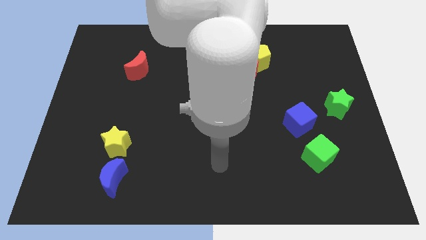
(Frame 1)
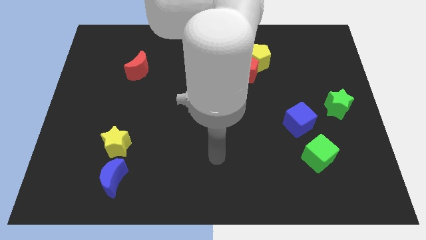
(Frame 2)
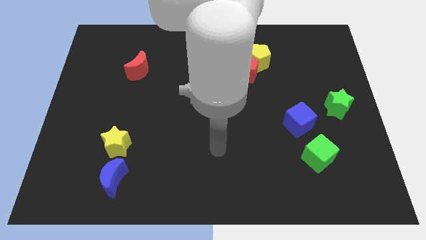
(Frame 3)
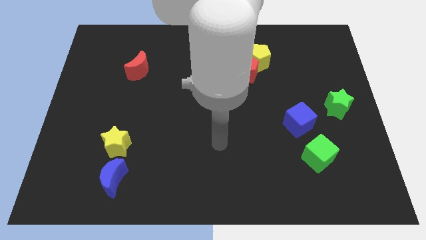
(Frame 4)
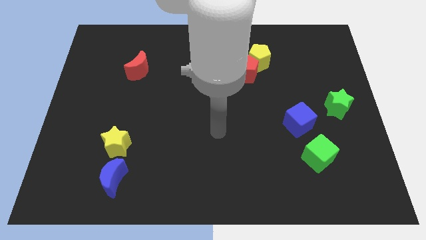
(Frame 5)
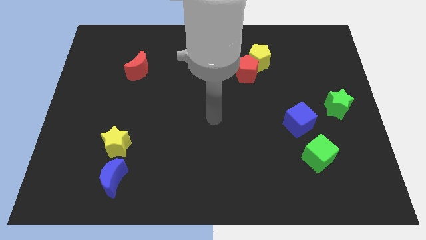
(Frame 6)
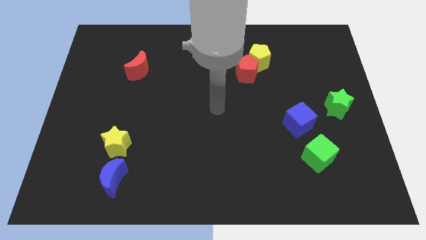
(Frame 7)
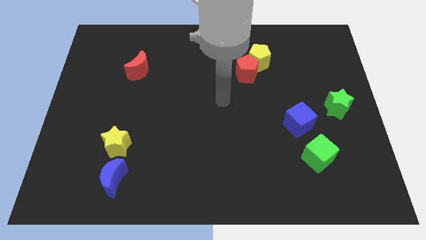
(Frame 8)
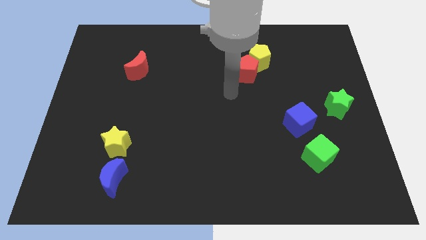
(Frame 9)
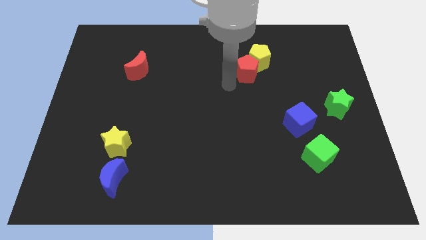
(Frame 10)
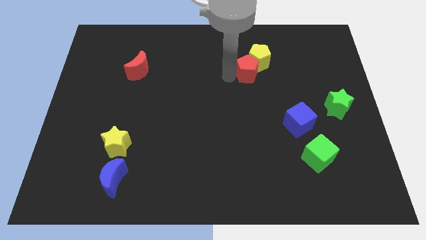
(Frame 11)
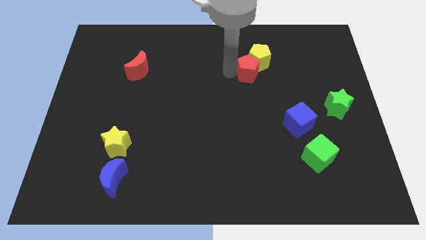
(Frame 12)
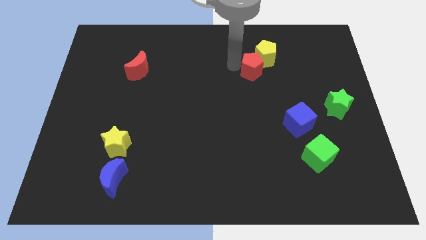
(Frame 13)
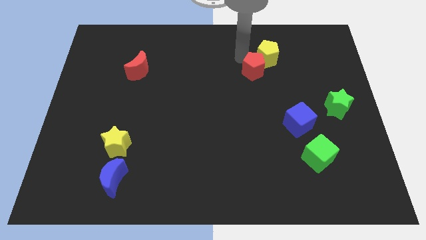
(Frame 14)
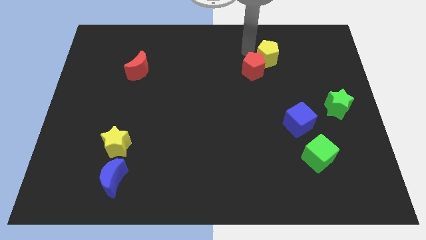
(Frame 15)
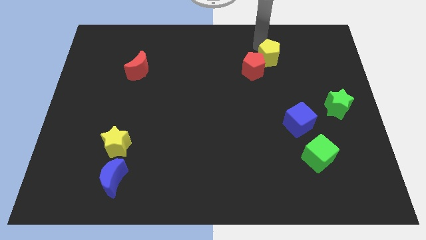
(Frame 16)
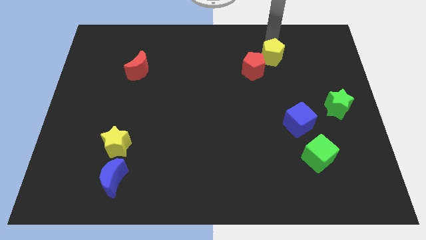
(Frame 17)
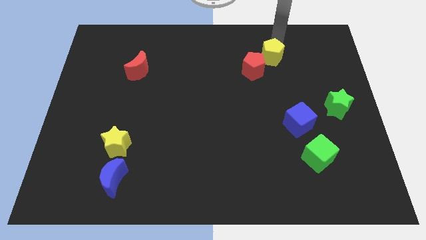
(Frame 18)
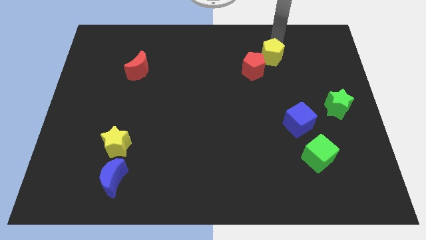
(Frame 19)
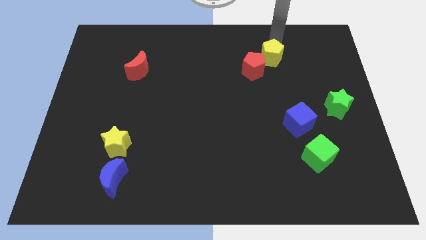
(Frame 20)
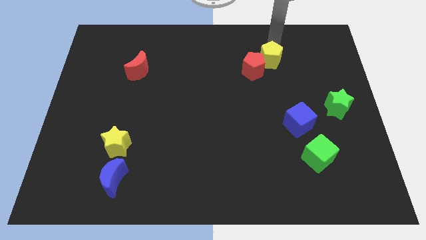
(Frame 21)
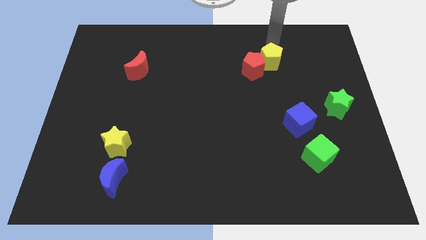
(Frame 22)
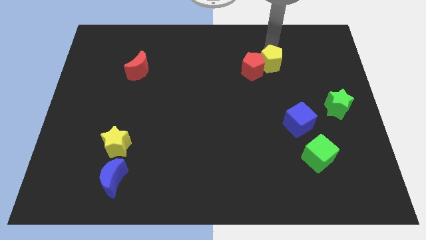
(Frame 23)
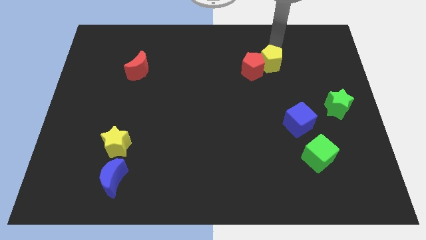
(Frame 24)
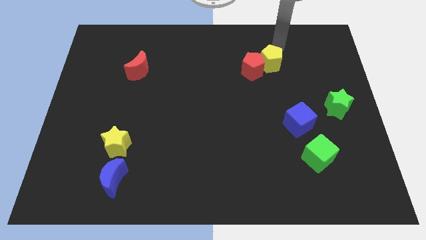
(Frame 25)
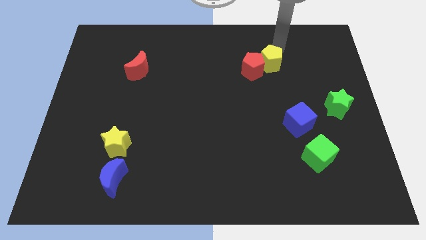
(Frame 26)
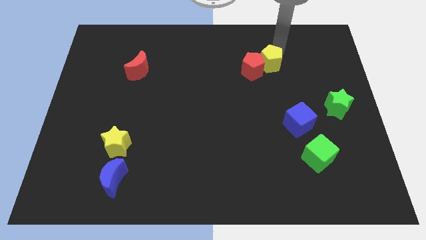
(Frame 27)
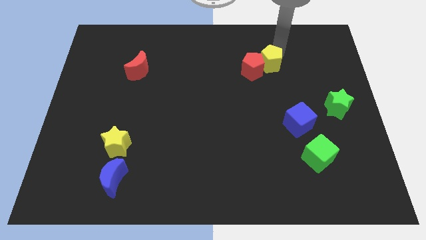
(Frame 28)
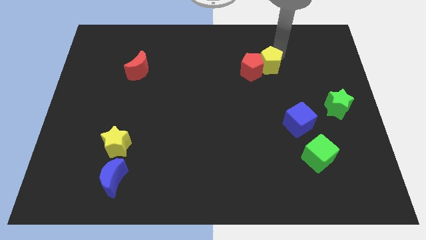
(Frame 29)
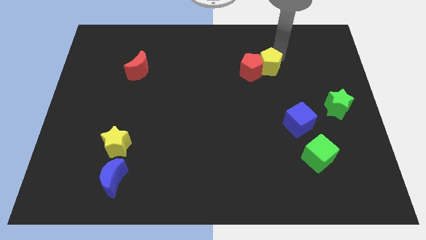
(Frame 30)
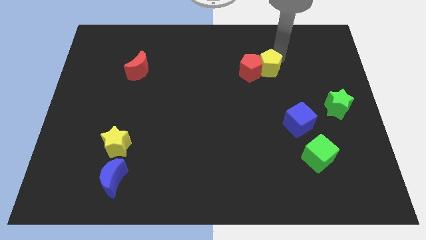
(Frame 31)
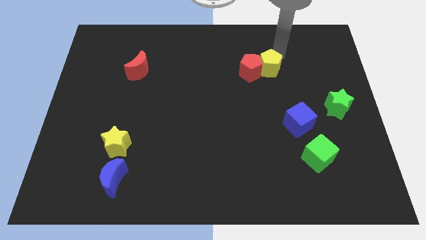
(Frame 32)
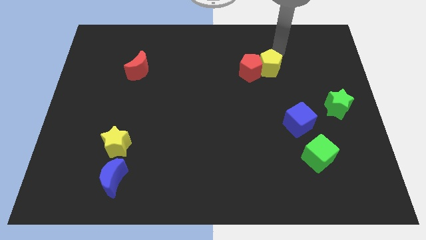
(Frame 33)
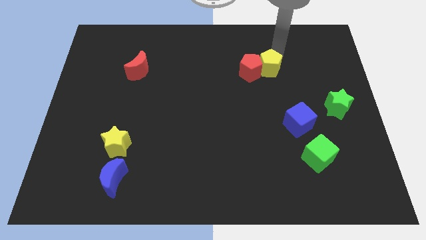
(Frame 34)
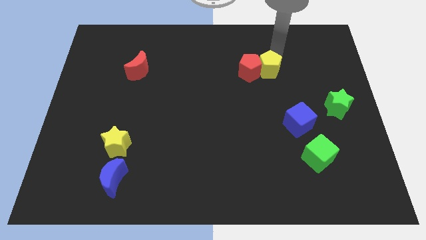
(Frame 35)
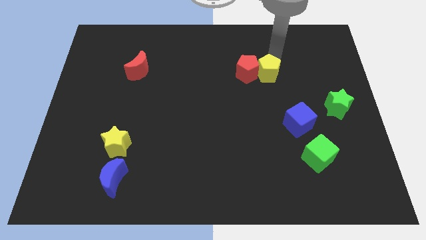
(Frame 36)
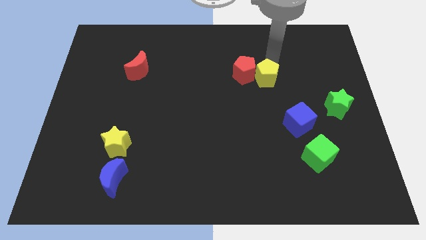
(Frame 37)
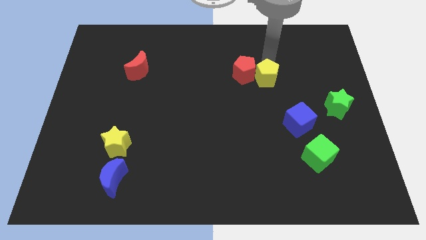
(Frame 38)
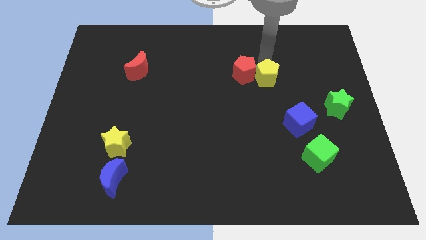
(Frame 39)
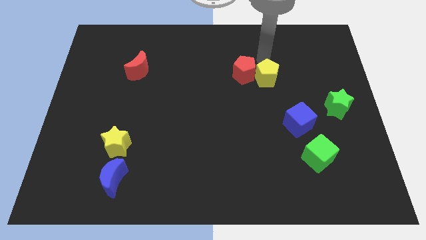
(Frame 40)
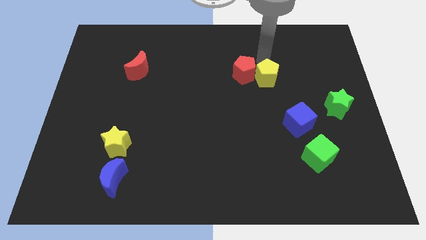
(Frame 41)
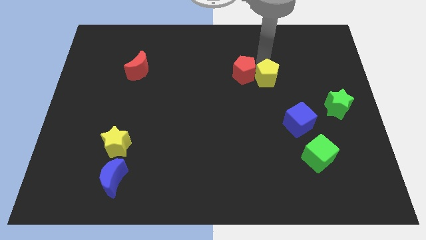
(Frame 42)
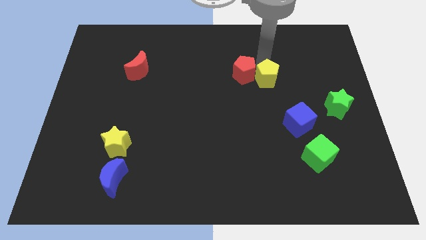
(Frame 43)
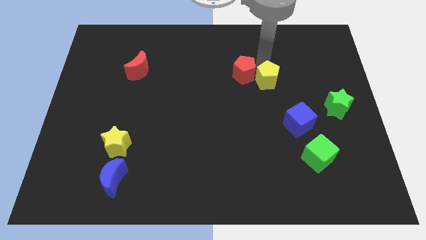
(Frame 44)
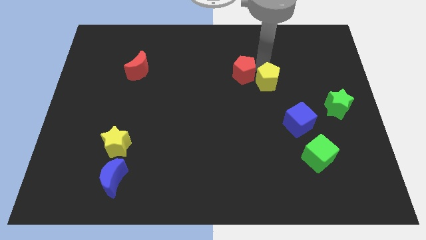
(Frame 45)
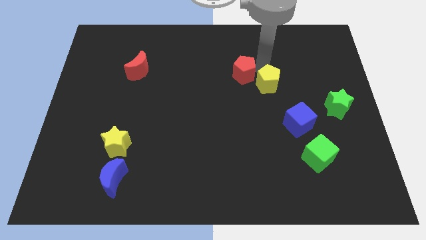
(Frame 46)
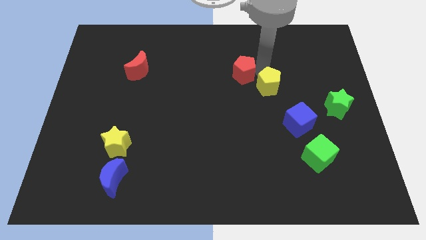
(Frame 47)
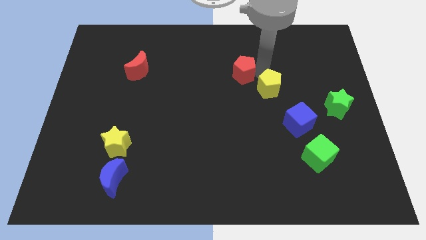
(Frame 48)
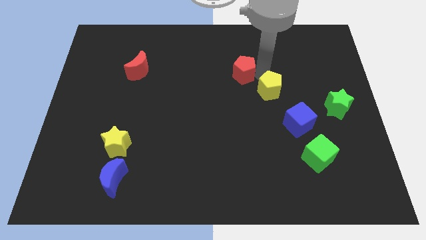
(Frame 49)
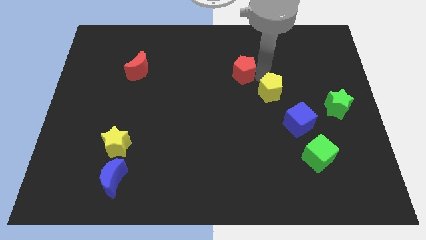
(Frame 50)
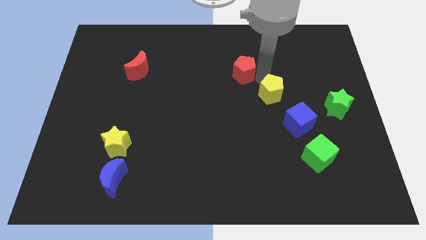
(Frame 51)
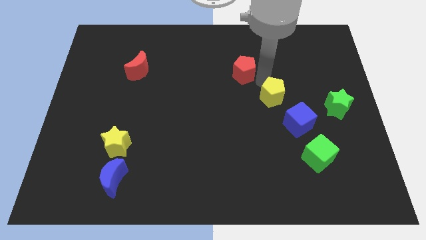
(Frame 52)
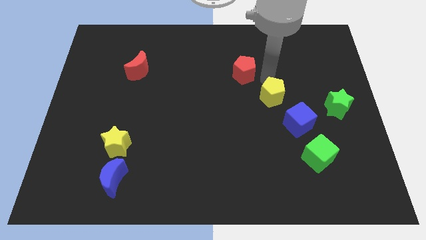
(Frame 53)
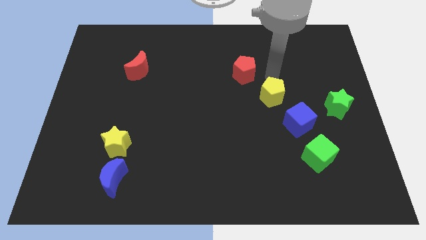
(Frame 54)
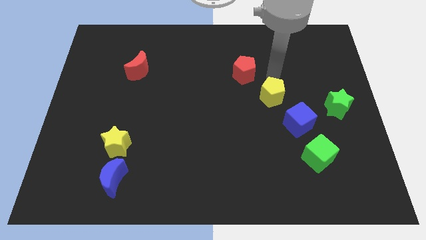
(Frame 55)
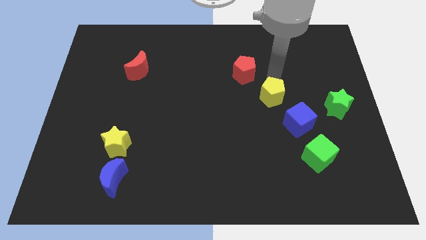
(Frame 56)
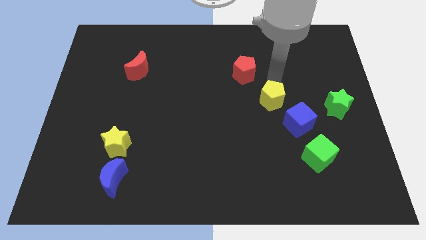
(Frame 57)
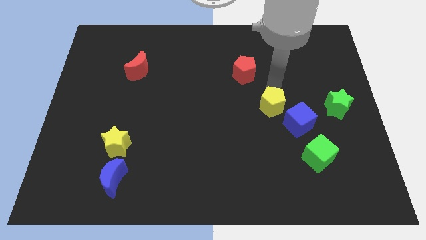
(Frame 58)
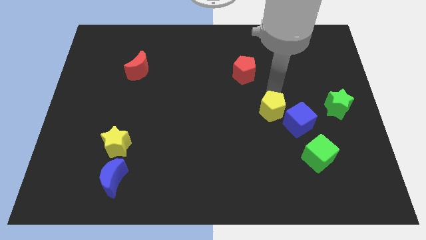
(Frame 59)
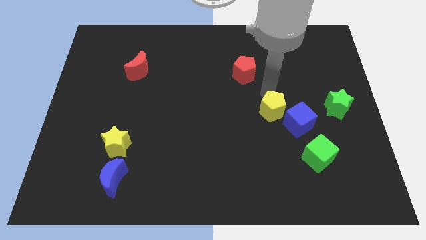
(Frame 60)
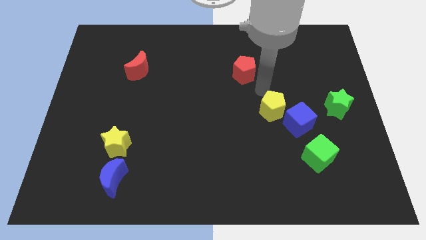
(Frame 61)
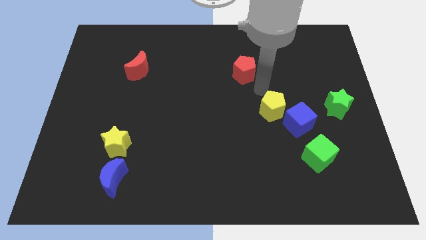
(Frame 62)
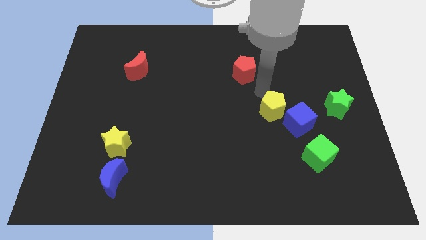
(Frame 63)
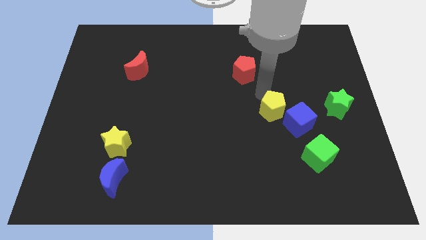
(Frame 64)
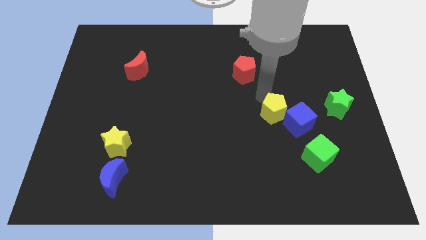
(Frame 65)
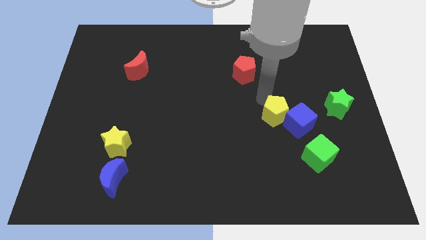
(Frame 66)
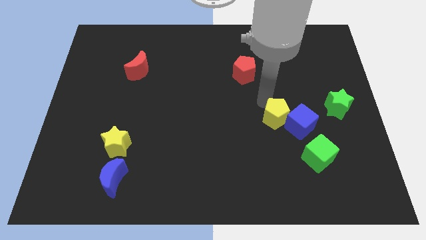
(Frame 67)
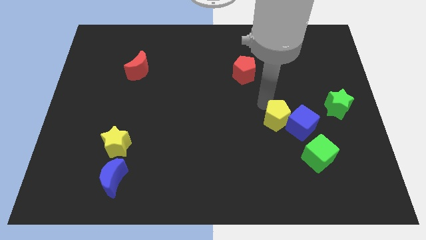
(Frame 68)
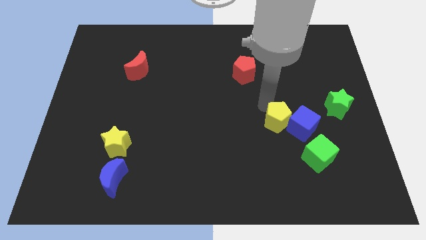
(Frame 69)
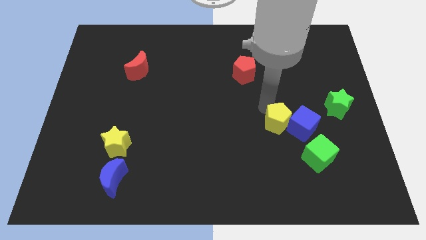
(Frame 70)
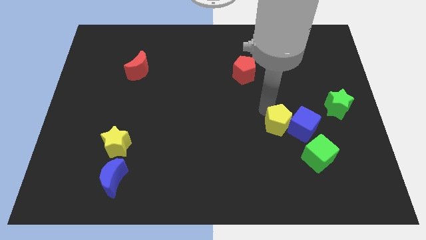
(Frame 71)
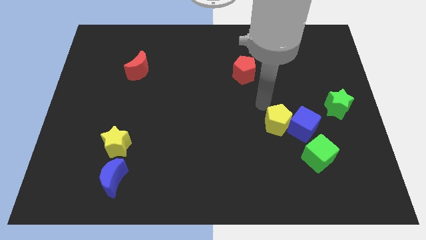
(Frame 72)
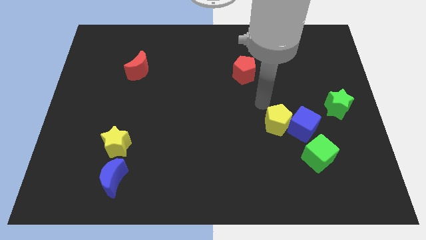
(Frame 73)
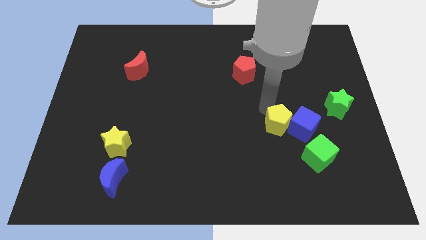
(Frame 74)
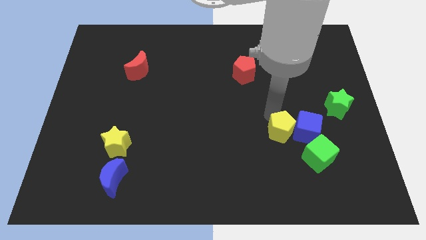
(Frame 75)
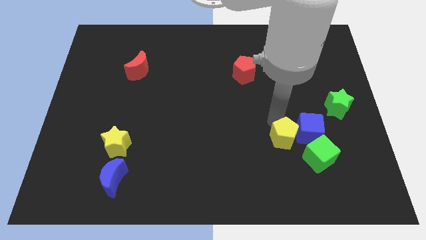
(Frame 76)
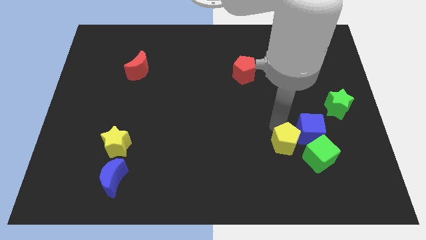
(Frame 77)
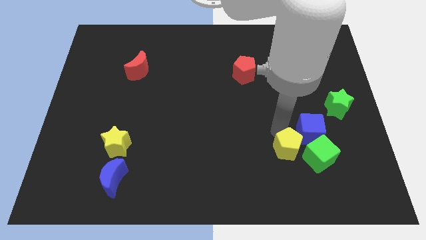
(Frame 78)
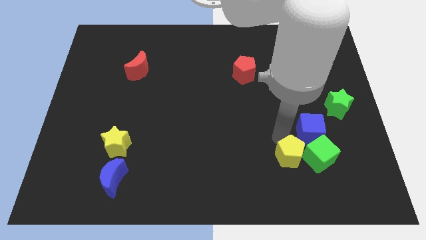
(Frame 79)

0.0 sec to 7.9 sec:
push the yellow pentagon to the green cube
